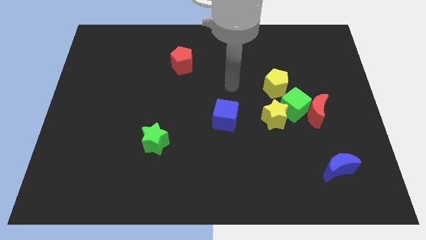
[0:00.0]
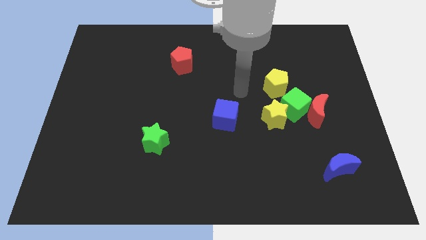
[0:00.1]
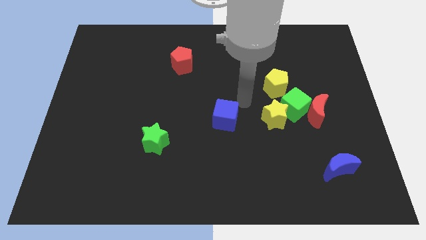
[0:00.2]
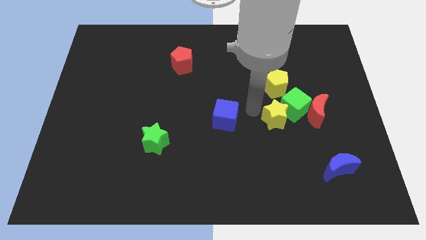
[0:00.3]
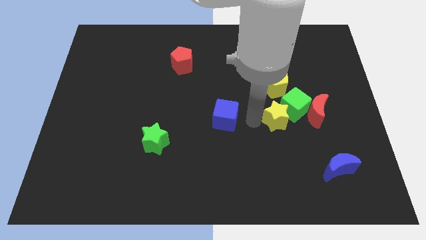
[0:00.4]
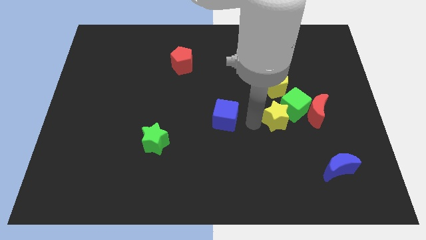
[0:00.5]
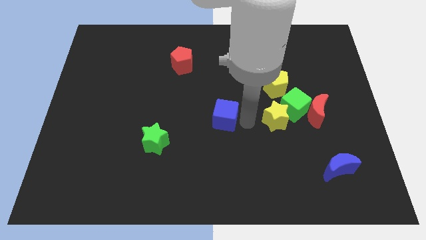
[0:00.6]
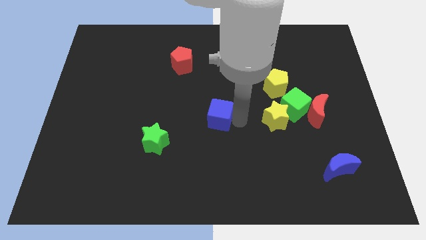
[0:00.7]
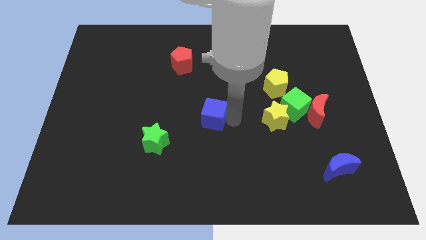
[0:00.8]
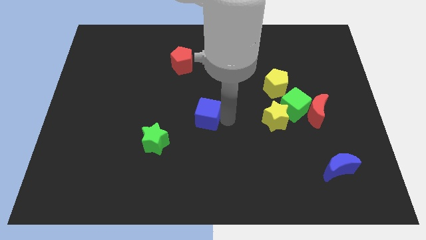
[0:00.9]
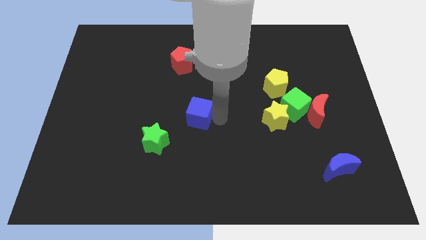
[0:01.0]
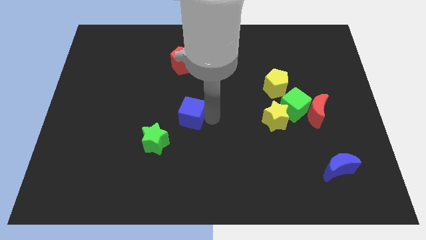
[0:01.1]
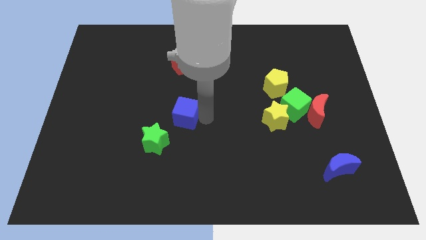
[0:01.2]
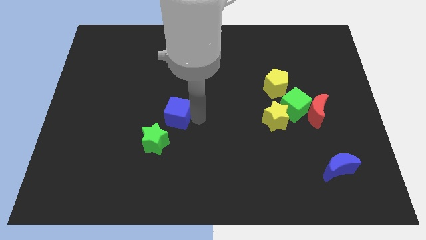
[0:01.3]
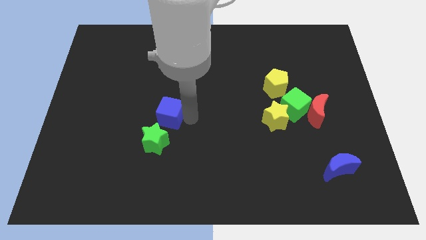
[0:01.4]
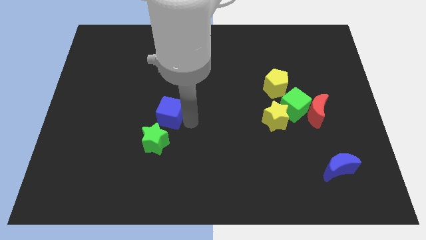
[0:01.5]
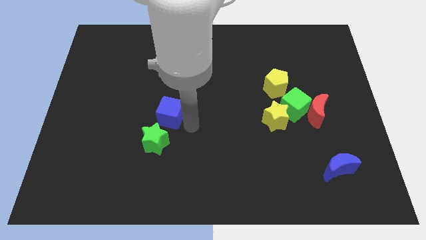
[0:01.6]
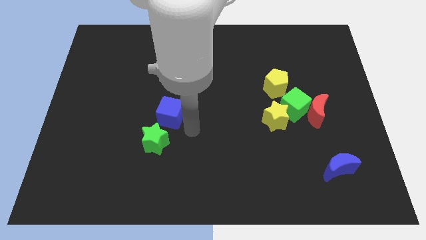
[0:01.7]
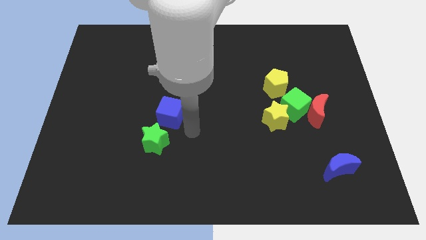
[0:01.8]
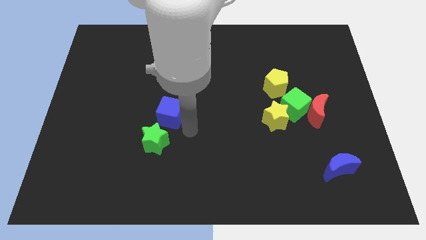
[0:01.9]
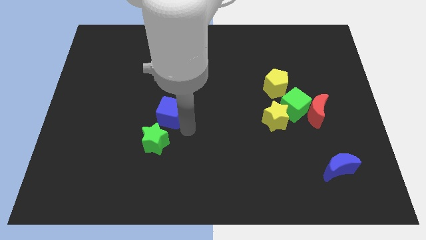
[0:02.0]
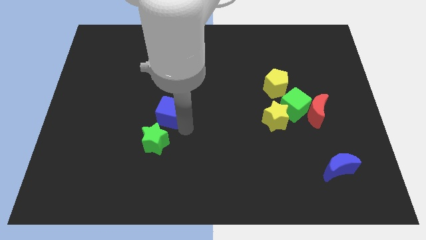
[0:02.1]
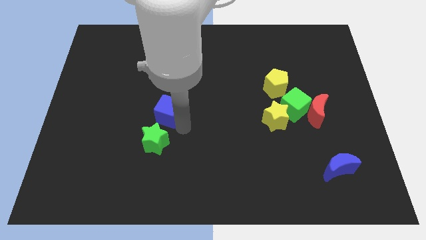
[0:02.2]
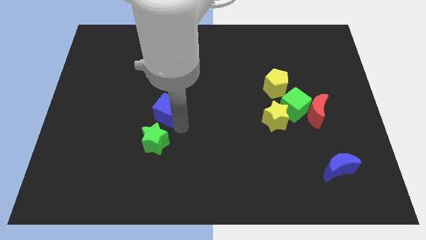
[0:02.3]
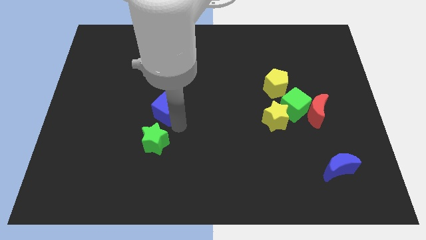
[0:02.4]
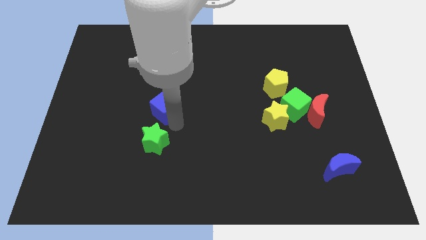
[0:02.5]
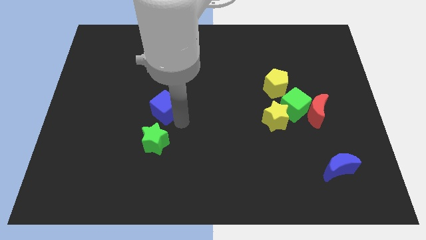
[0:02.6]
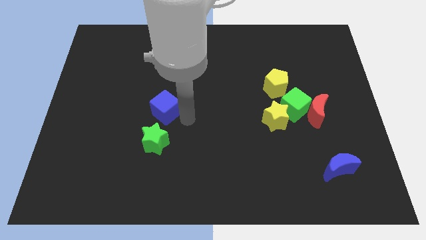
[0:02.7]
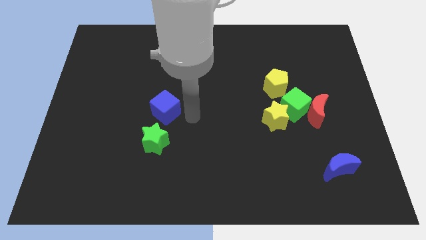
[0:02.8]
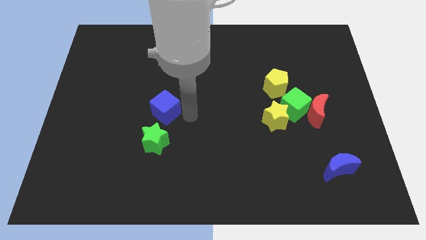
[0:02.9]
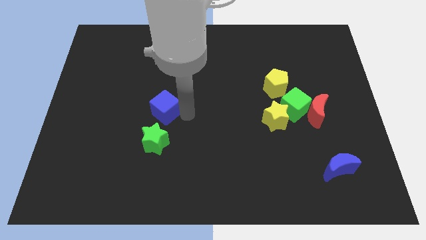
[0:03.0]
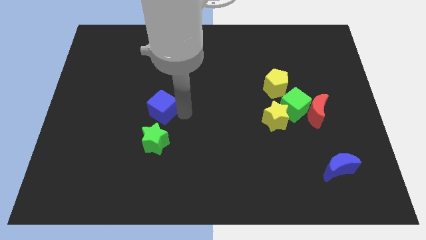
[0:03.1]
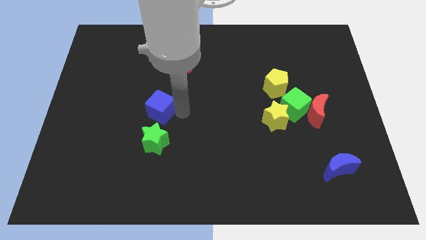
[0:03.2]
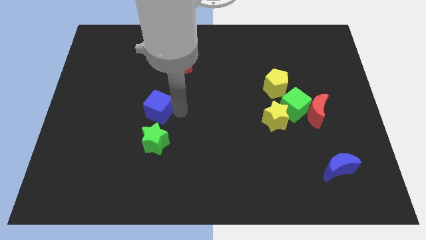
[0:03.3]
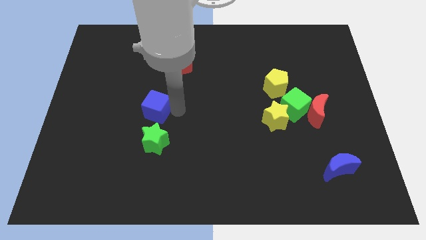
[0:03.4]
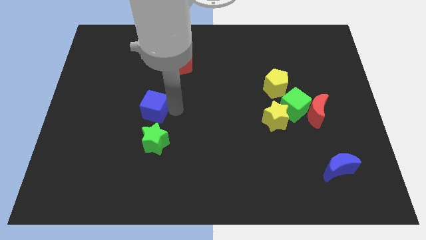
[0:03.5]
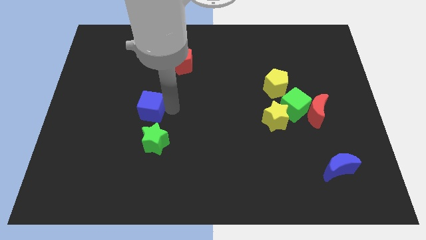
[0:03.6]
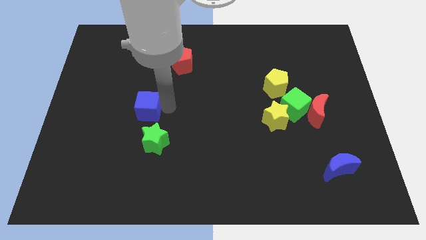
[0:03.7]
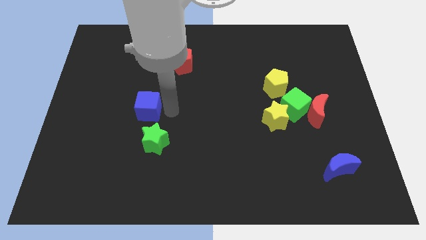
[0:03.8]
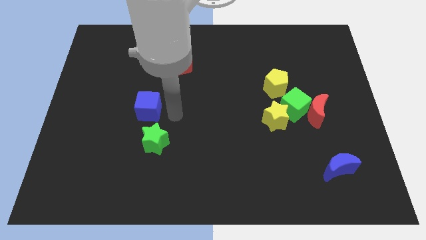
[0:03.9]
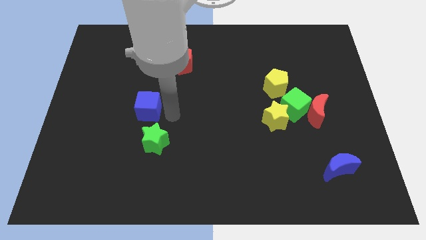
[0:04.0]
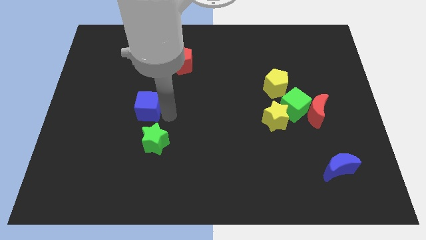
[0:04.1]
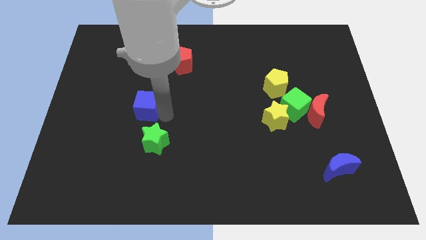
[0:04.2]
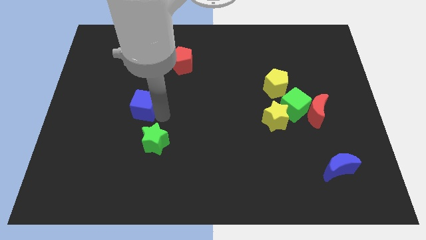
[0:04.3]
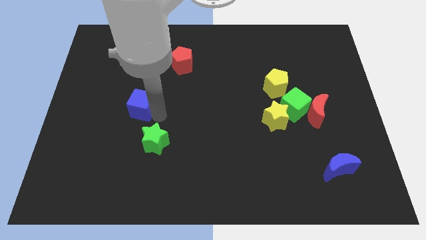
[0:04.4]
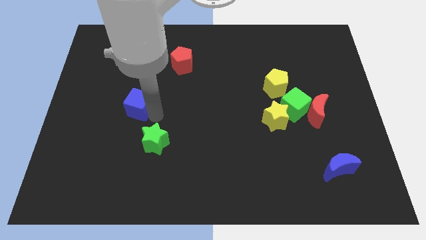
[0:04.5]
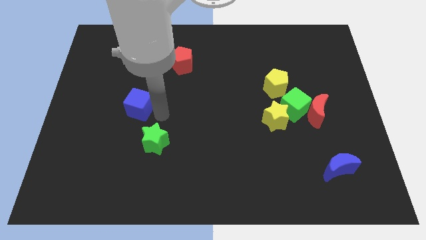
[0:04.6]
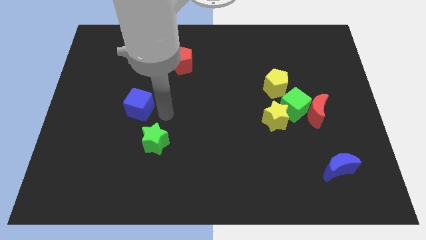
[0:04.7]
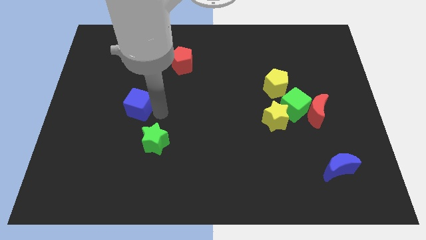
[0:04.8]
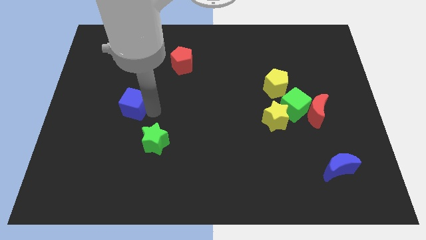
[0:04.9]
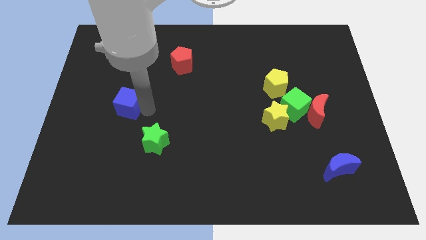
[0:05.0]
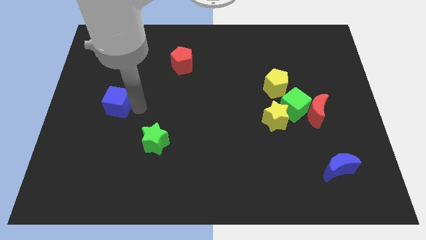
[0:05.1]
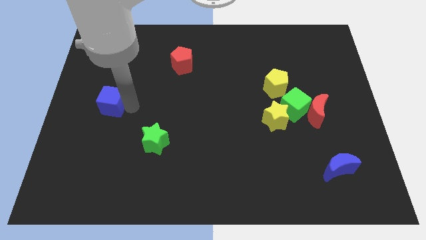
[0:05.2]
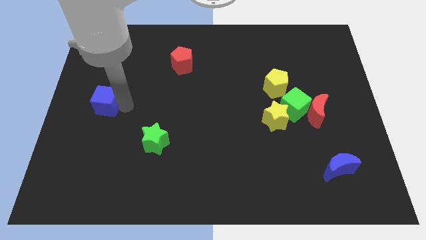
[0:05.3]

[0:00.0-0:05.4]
move the blue cube to the center left
